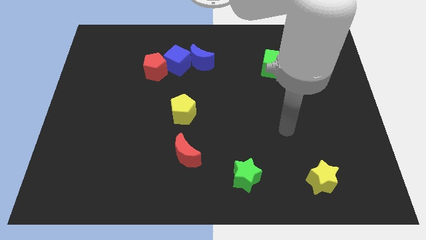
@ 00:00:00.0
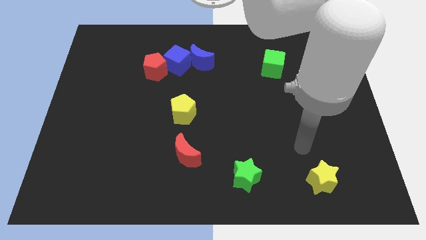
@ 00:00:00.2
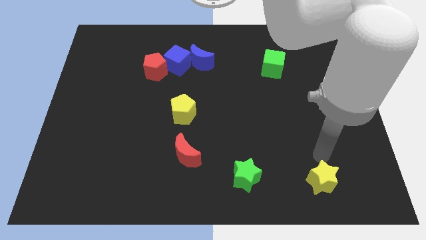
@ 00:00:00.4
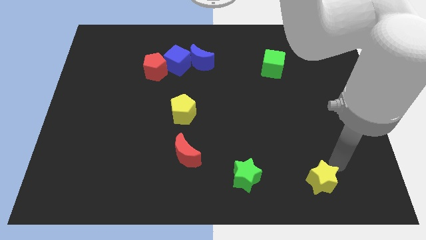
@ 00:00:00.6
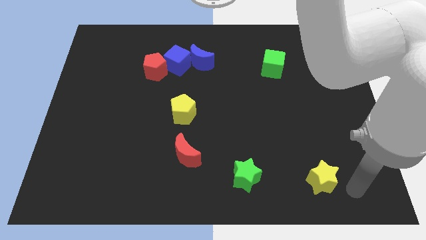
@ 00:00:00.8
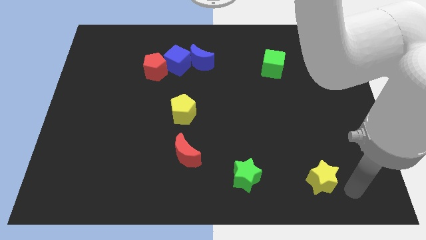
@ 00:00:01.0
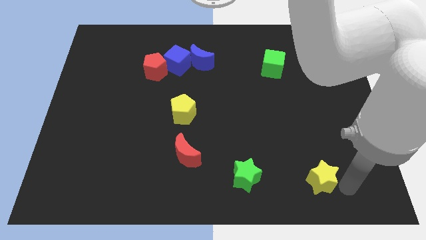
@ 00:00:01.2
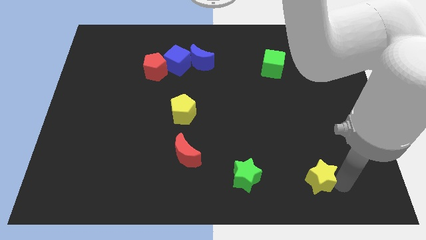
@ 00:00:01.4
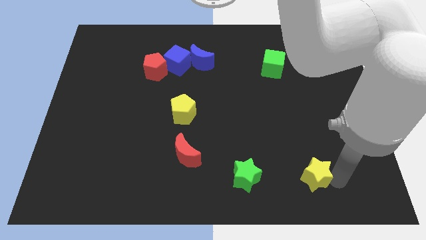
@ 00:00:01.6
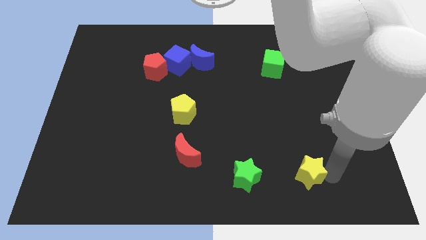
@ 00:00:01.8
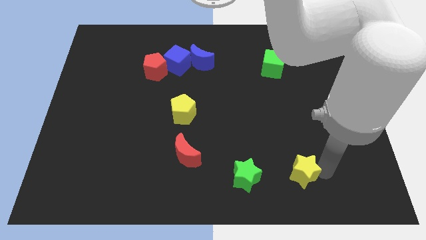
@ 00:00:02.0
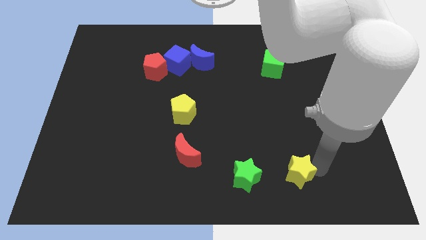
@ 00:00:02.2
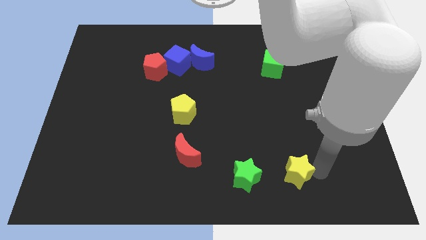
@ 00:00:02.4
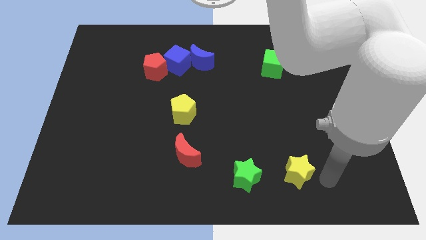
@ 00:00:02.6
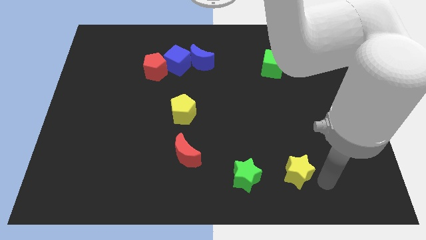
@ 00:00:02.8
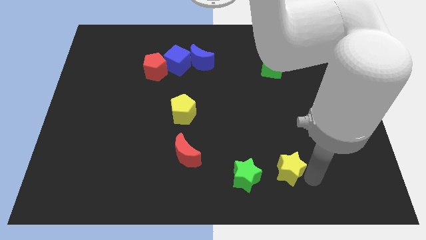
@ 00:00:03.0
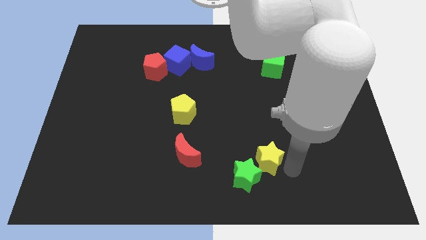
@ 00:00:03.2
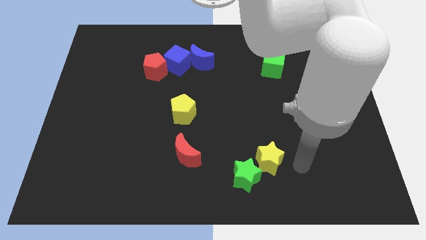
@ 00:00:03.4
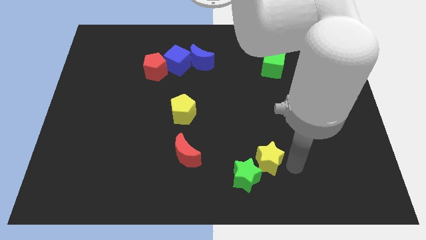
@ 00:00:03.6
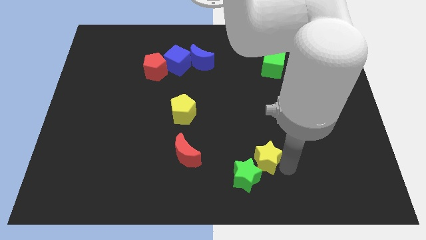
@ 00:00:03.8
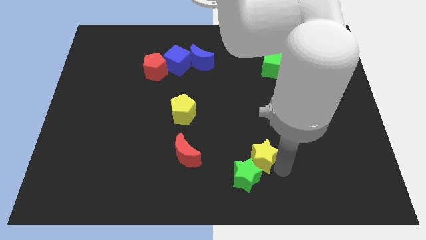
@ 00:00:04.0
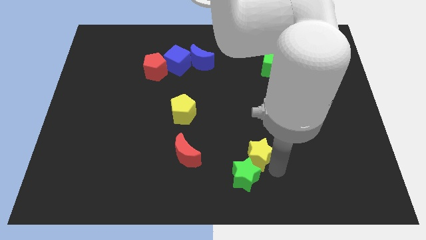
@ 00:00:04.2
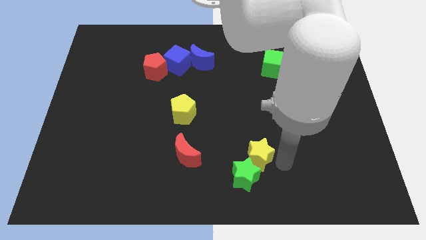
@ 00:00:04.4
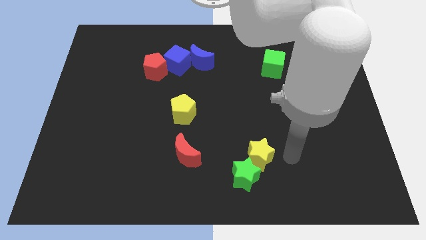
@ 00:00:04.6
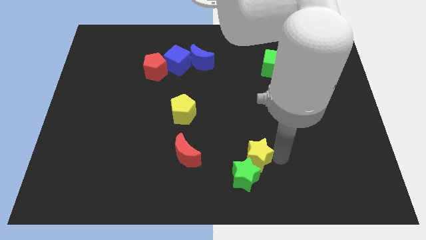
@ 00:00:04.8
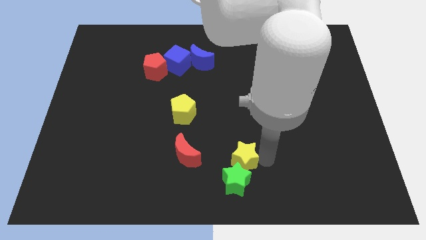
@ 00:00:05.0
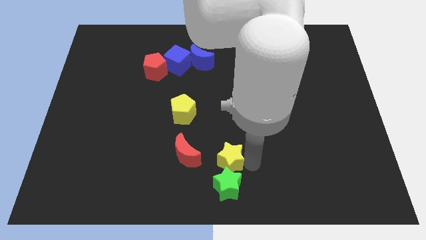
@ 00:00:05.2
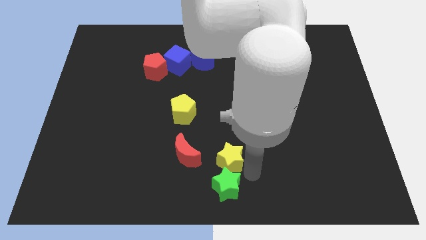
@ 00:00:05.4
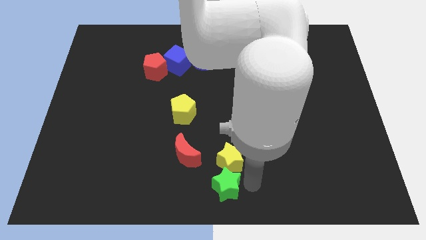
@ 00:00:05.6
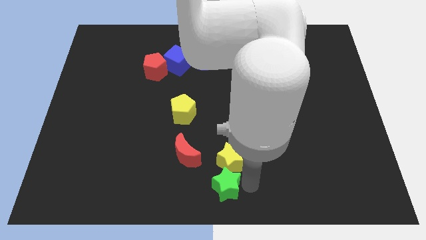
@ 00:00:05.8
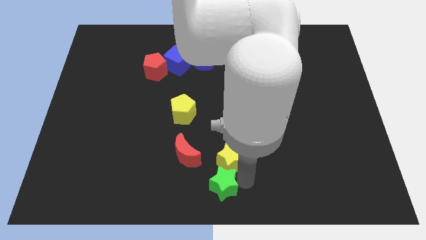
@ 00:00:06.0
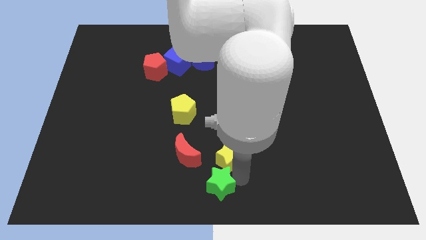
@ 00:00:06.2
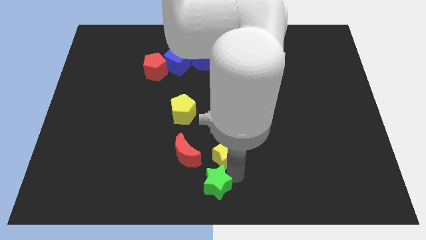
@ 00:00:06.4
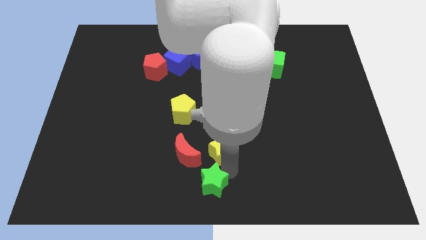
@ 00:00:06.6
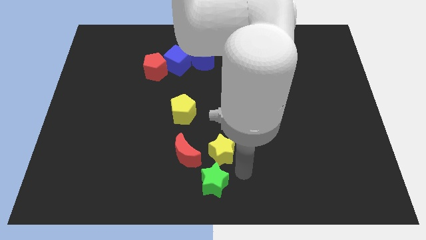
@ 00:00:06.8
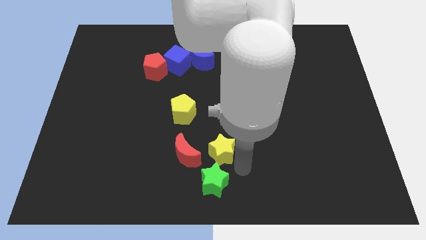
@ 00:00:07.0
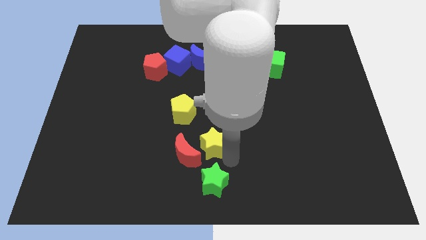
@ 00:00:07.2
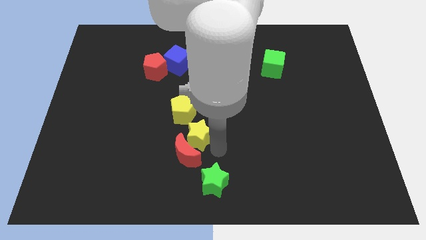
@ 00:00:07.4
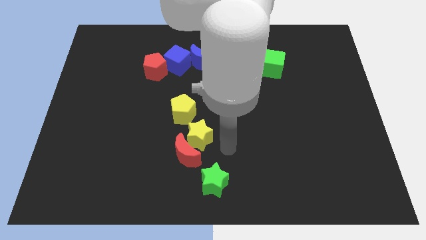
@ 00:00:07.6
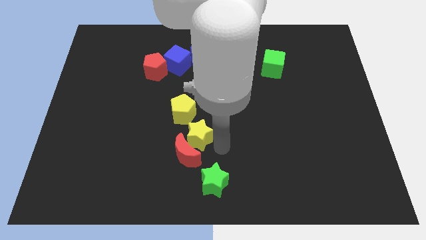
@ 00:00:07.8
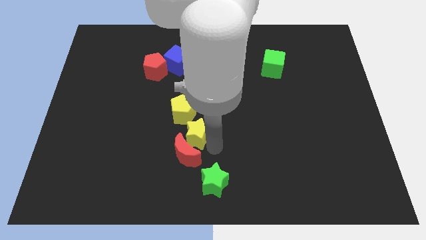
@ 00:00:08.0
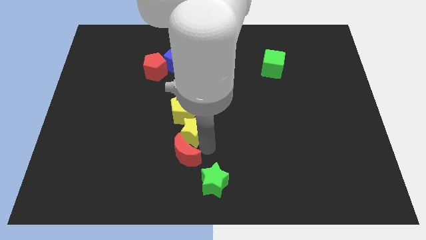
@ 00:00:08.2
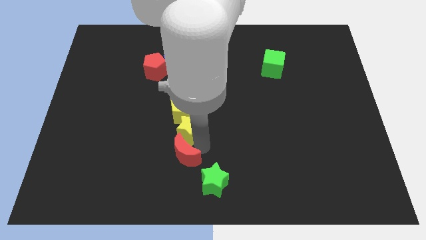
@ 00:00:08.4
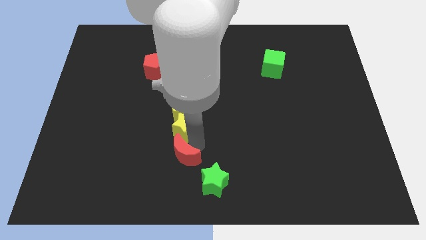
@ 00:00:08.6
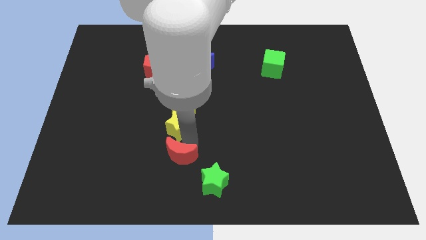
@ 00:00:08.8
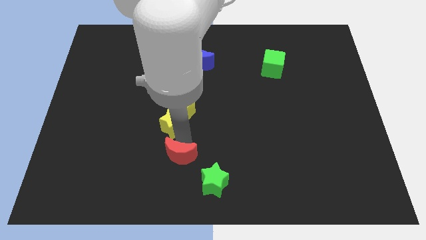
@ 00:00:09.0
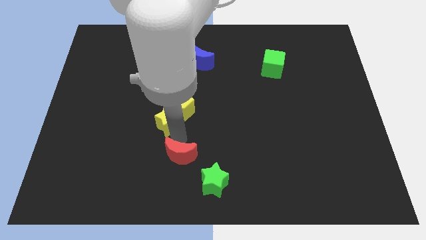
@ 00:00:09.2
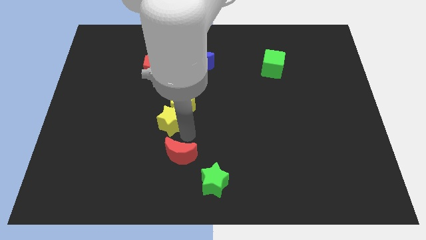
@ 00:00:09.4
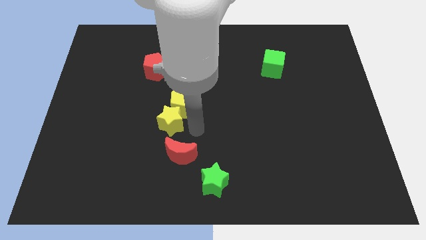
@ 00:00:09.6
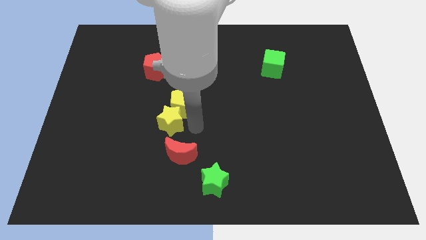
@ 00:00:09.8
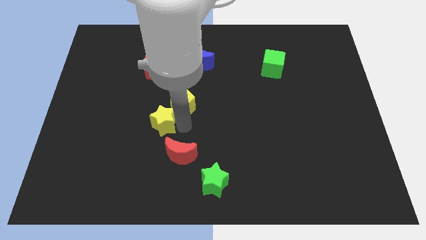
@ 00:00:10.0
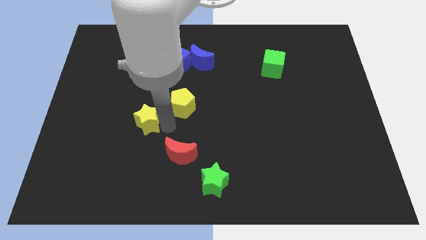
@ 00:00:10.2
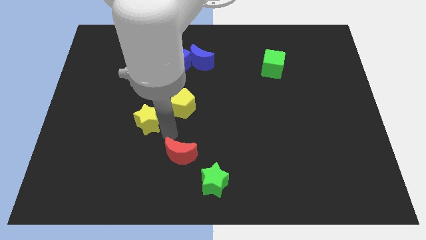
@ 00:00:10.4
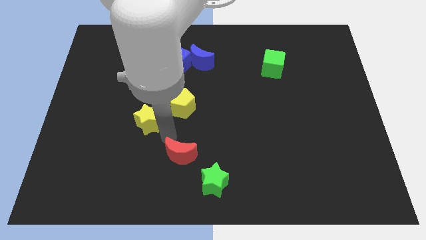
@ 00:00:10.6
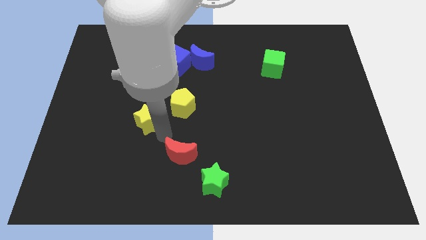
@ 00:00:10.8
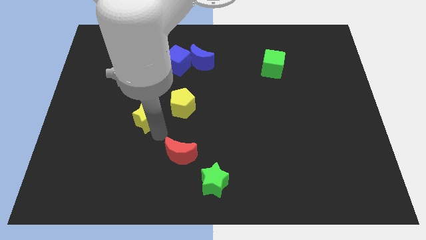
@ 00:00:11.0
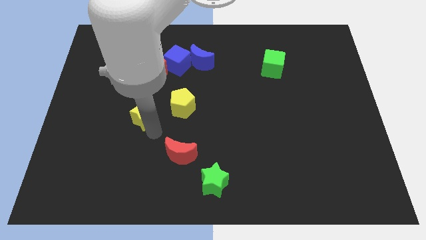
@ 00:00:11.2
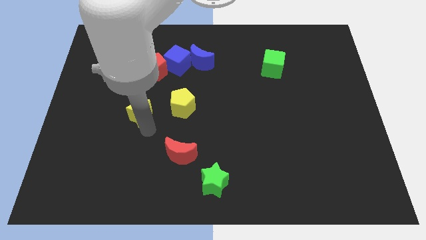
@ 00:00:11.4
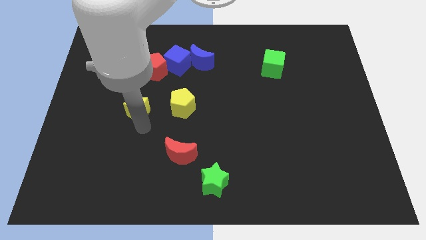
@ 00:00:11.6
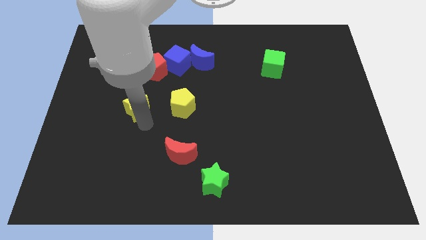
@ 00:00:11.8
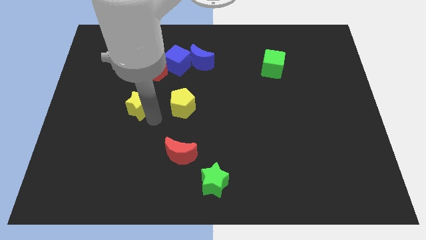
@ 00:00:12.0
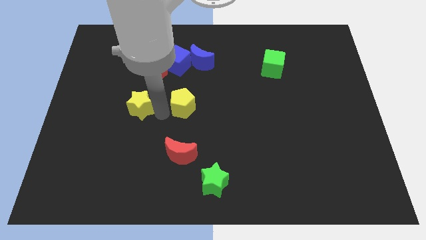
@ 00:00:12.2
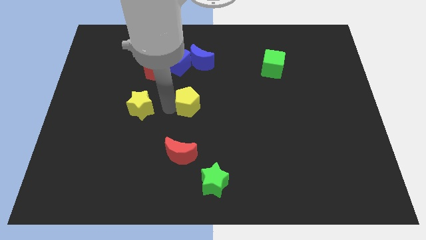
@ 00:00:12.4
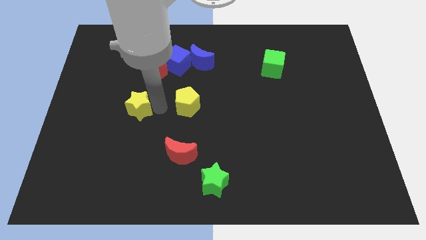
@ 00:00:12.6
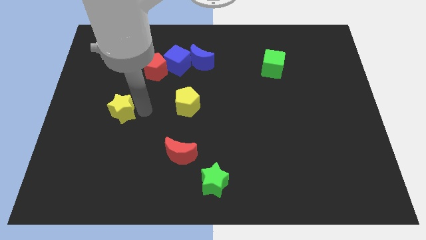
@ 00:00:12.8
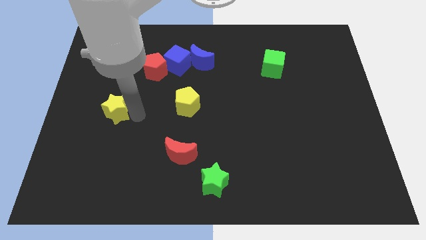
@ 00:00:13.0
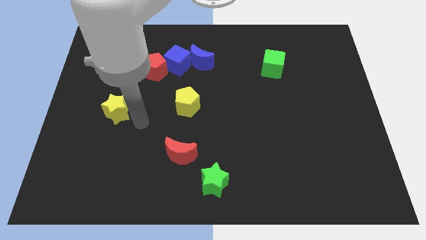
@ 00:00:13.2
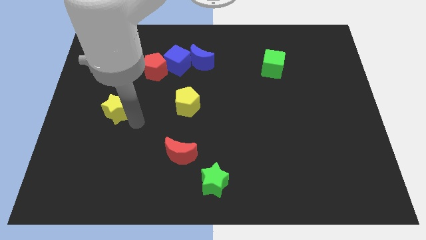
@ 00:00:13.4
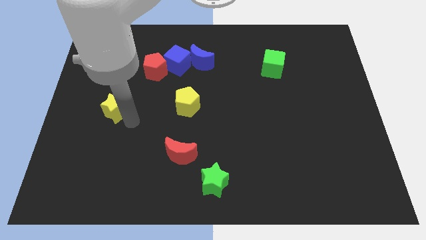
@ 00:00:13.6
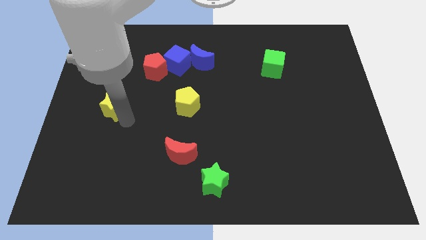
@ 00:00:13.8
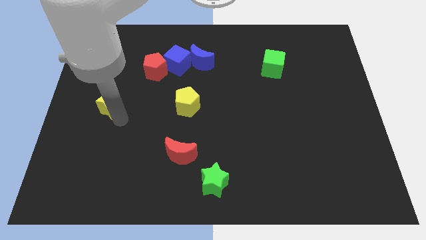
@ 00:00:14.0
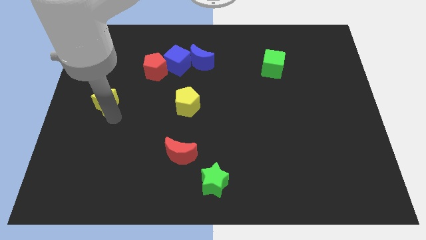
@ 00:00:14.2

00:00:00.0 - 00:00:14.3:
move the yellow star to the left side

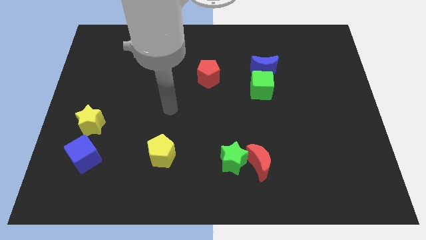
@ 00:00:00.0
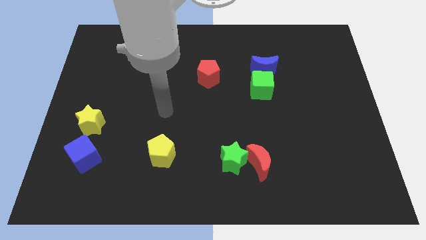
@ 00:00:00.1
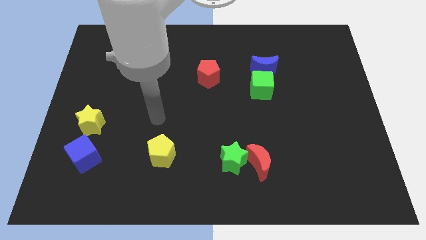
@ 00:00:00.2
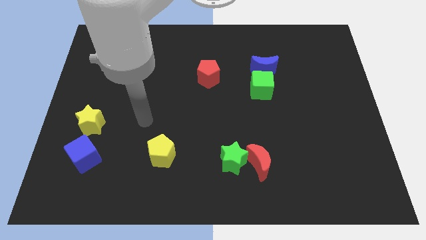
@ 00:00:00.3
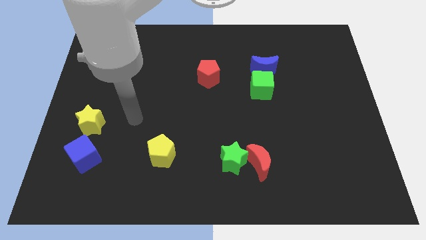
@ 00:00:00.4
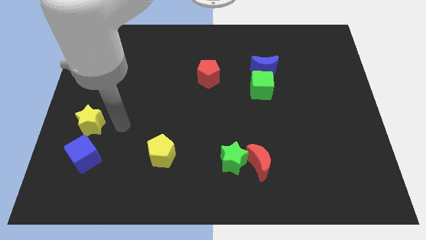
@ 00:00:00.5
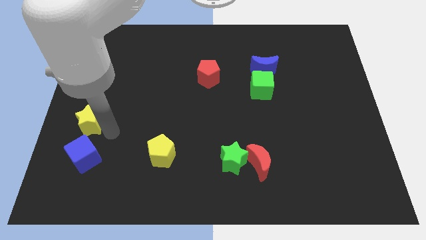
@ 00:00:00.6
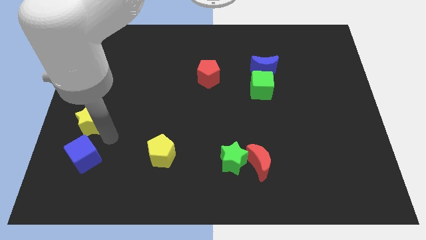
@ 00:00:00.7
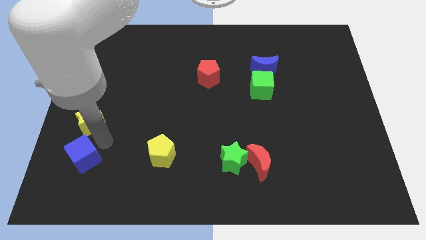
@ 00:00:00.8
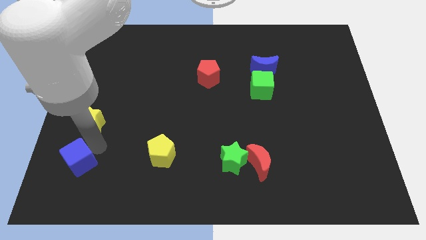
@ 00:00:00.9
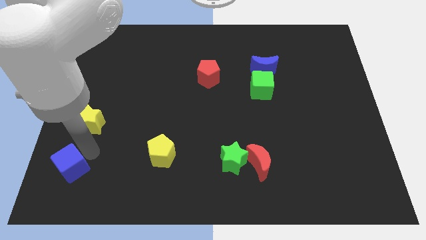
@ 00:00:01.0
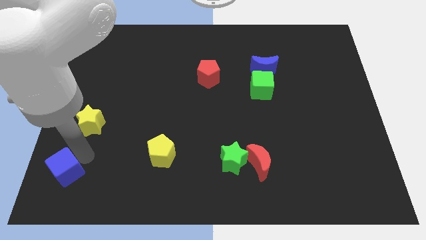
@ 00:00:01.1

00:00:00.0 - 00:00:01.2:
move the blue cube to the bottom left corner
